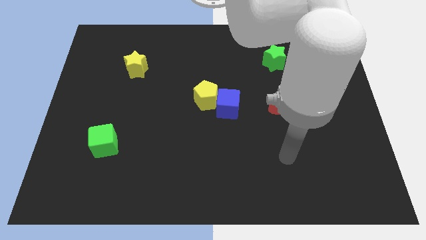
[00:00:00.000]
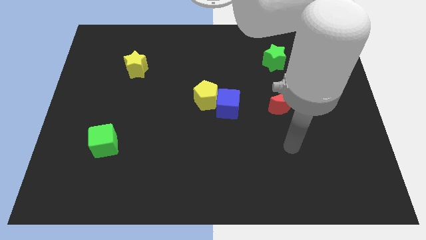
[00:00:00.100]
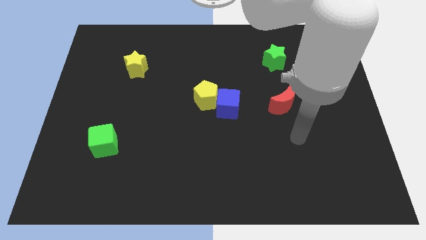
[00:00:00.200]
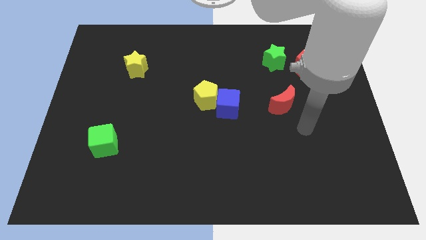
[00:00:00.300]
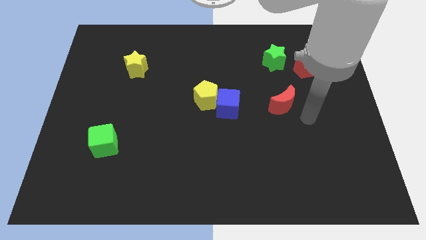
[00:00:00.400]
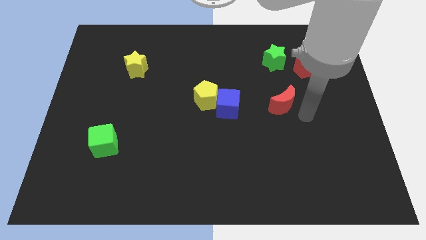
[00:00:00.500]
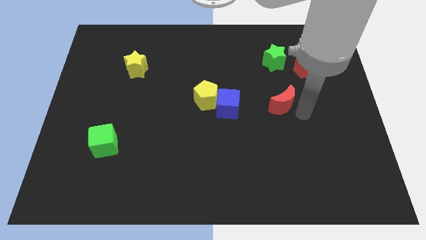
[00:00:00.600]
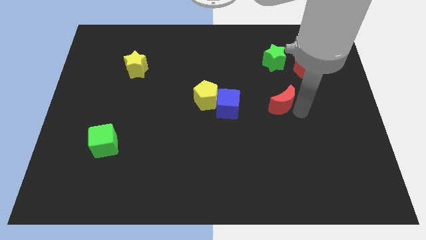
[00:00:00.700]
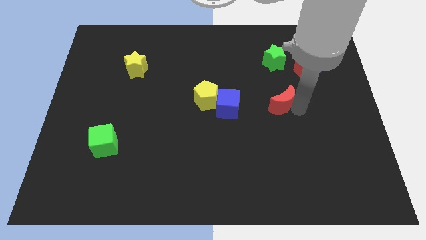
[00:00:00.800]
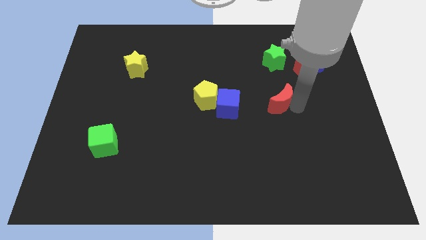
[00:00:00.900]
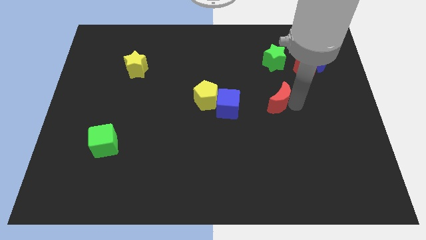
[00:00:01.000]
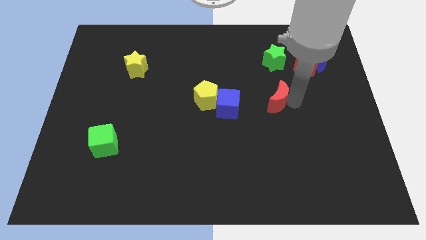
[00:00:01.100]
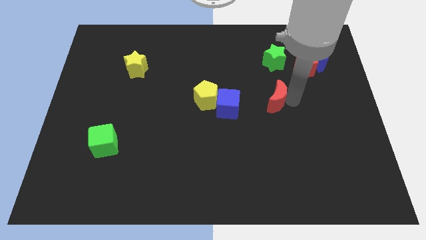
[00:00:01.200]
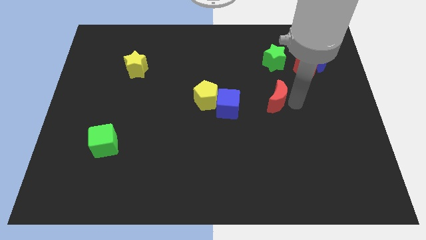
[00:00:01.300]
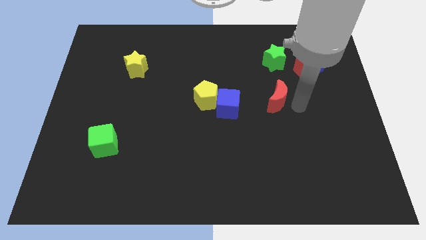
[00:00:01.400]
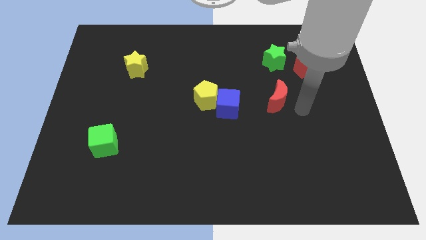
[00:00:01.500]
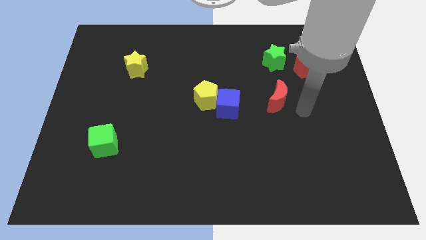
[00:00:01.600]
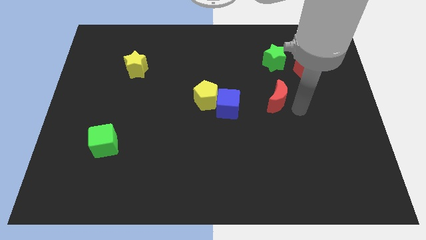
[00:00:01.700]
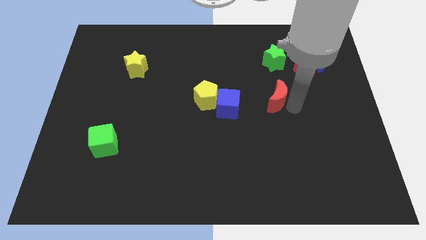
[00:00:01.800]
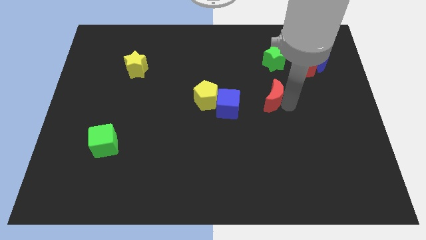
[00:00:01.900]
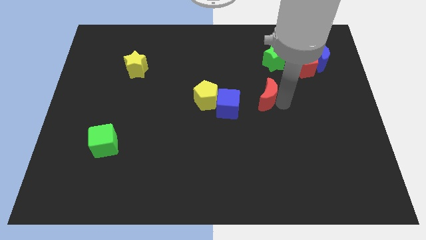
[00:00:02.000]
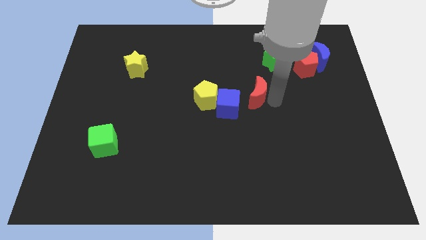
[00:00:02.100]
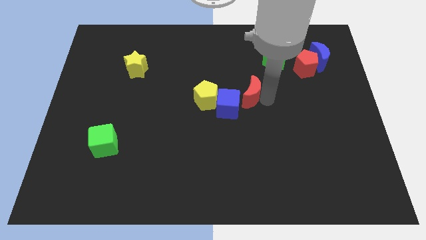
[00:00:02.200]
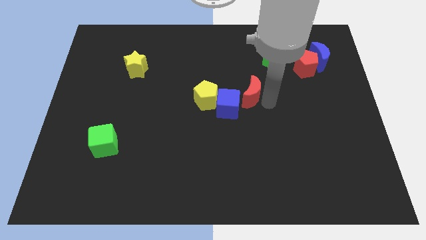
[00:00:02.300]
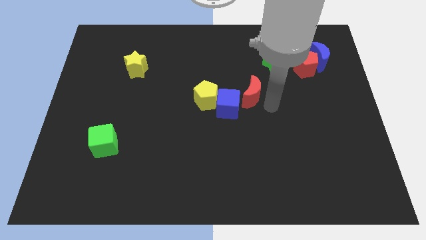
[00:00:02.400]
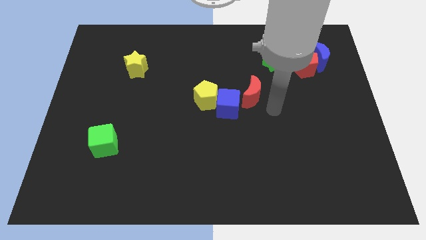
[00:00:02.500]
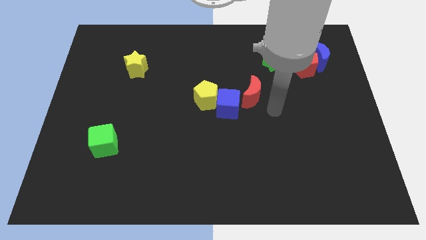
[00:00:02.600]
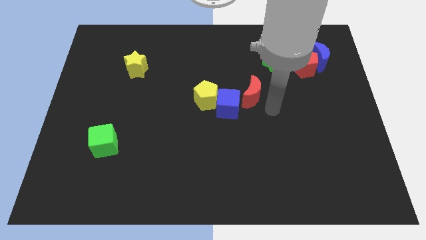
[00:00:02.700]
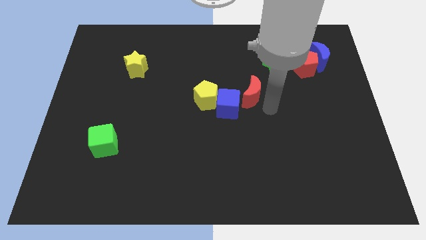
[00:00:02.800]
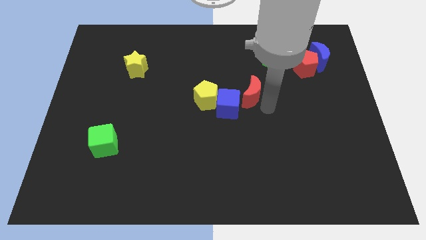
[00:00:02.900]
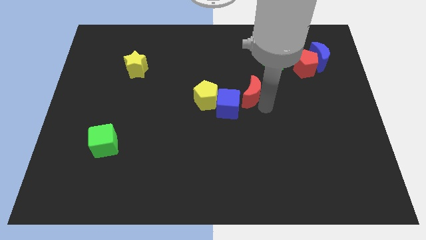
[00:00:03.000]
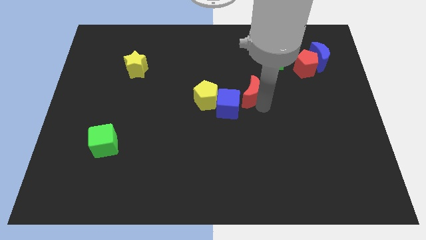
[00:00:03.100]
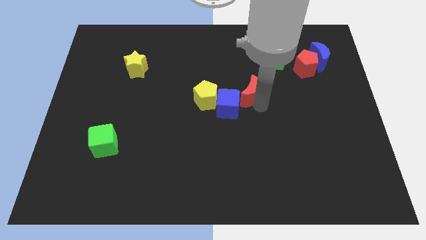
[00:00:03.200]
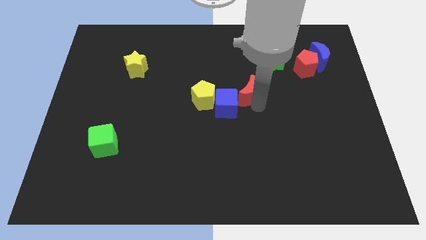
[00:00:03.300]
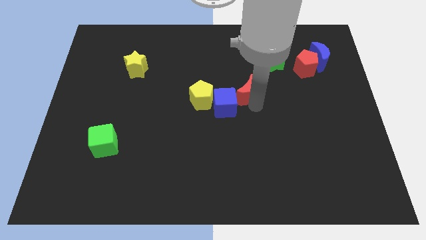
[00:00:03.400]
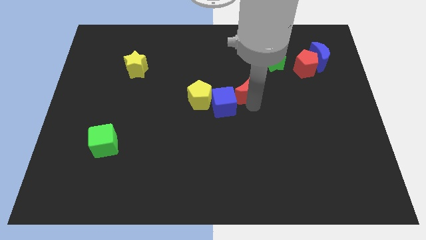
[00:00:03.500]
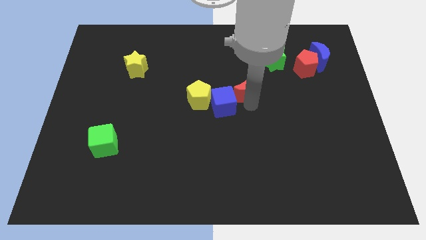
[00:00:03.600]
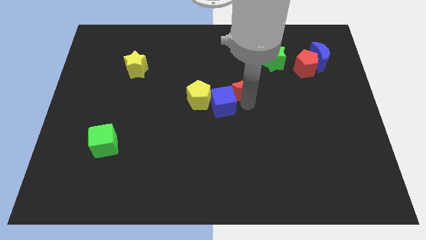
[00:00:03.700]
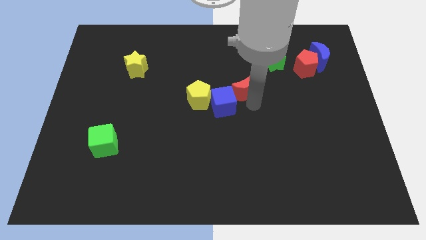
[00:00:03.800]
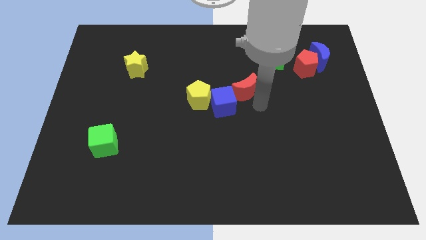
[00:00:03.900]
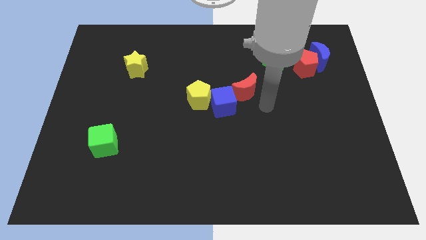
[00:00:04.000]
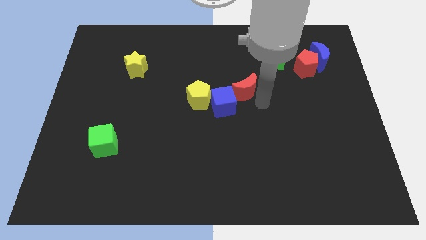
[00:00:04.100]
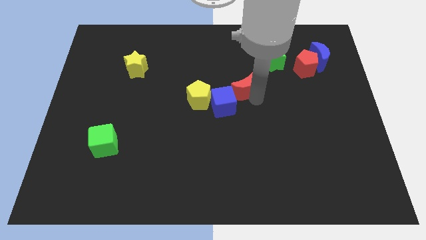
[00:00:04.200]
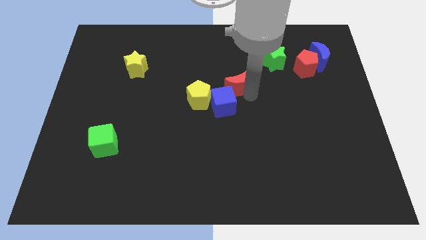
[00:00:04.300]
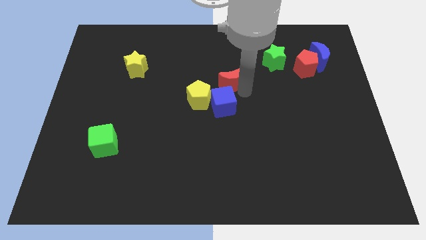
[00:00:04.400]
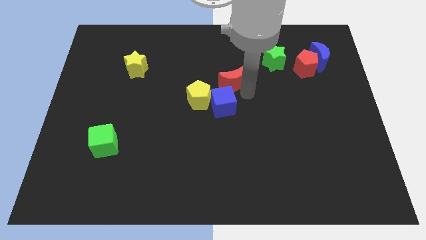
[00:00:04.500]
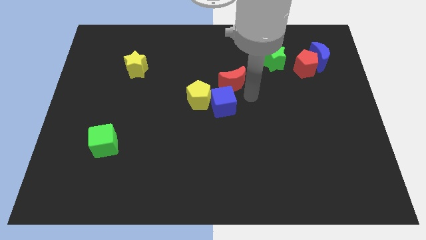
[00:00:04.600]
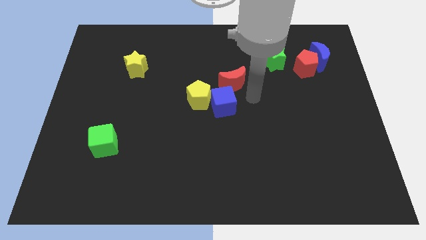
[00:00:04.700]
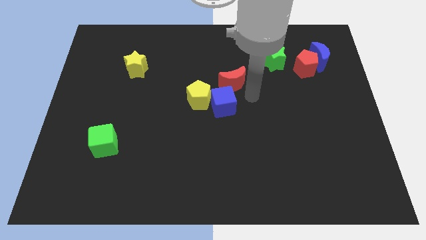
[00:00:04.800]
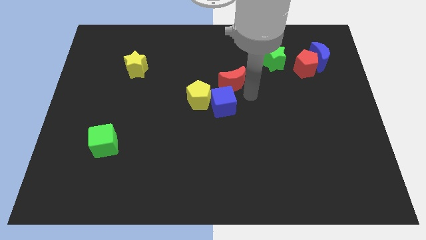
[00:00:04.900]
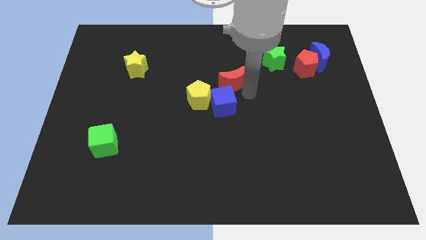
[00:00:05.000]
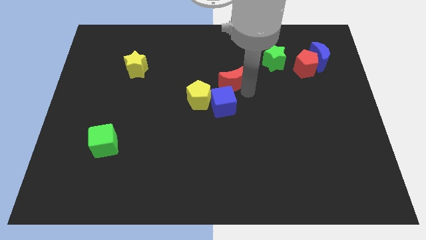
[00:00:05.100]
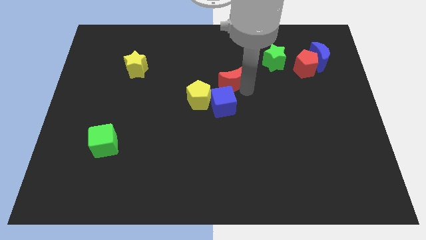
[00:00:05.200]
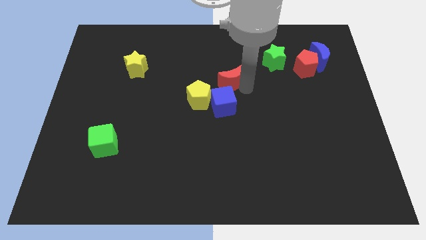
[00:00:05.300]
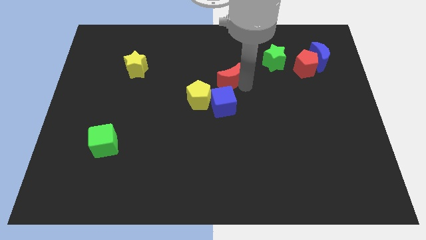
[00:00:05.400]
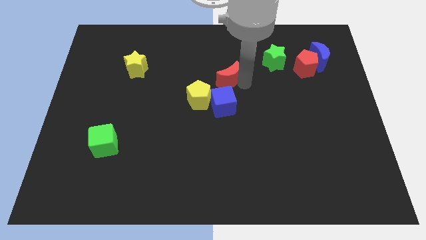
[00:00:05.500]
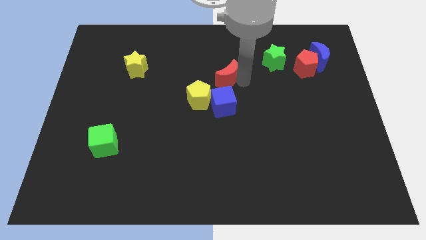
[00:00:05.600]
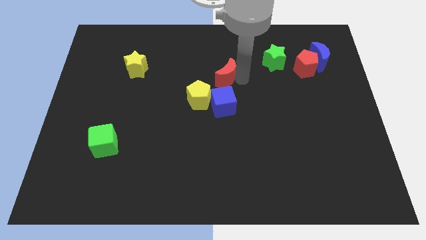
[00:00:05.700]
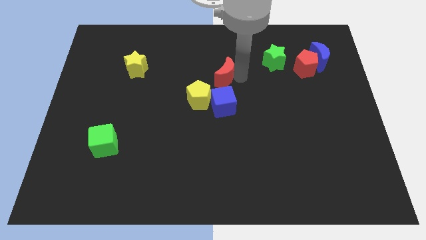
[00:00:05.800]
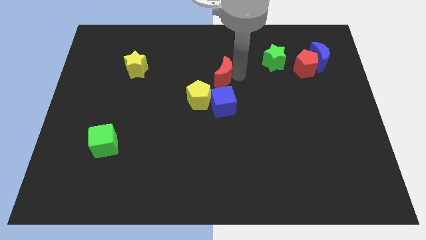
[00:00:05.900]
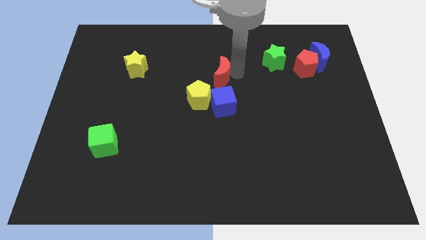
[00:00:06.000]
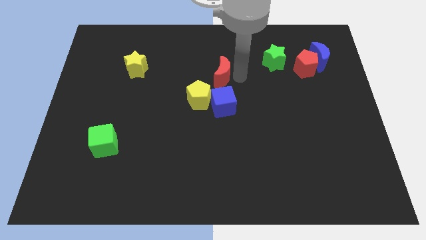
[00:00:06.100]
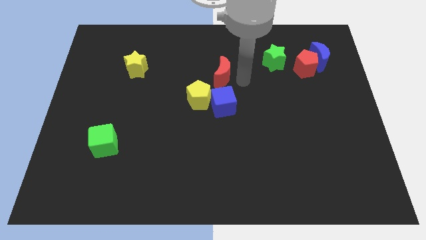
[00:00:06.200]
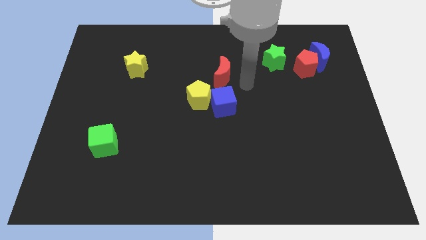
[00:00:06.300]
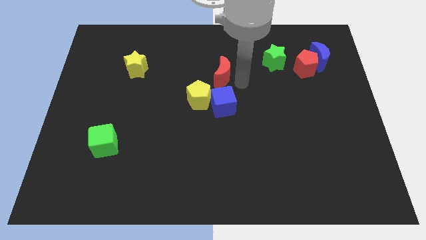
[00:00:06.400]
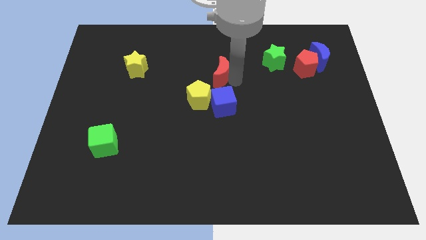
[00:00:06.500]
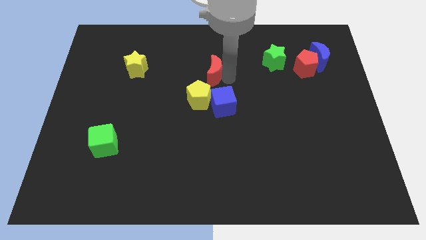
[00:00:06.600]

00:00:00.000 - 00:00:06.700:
move the red moon to the top of the yellow pentagon

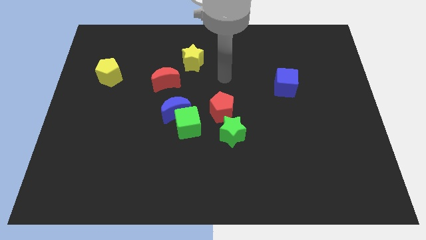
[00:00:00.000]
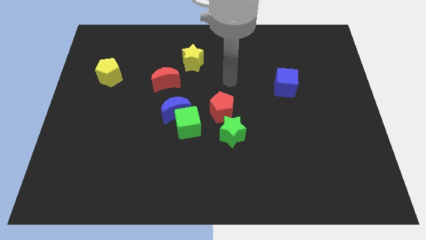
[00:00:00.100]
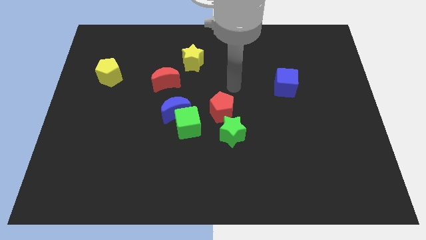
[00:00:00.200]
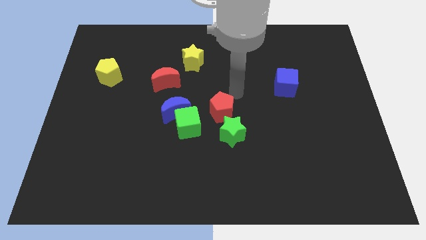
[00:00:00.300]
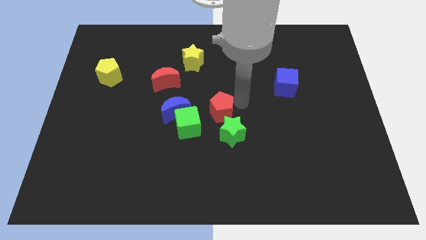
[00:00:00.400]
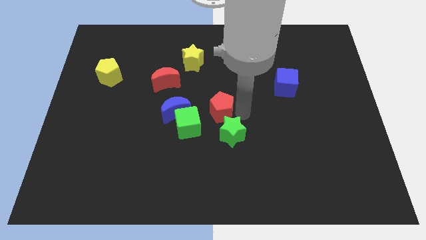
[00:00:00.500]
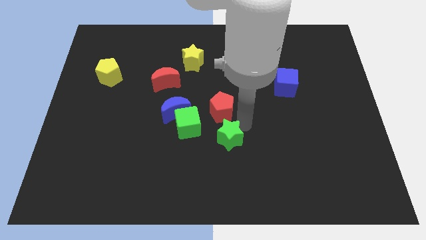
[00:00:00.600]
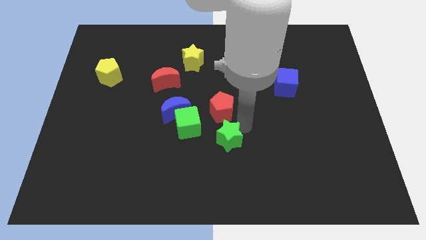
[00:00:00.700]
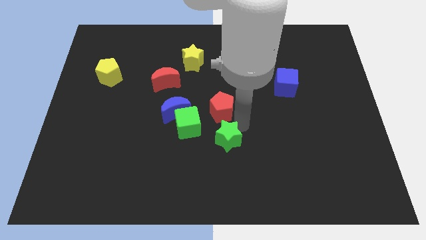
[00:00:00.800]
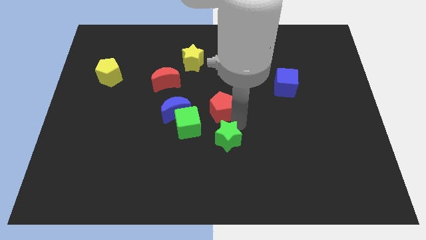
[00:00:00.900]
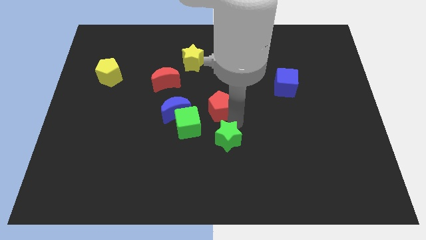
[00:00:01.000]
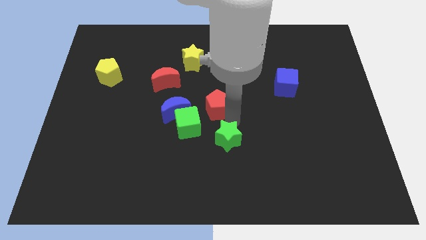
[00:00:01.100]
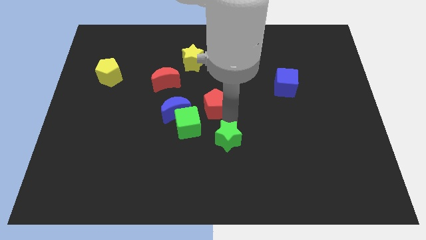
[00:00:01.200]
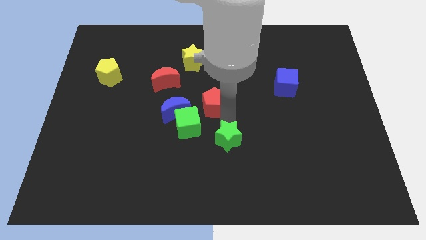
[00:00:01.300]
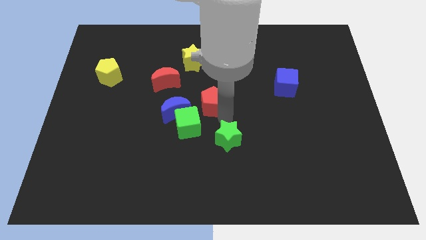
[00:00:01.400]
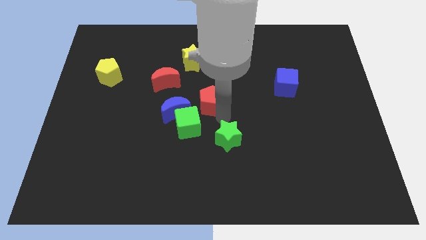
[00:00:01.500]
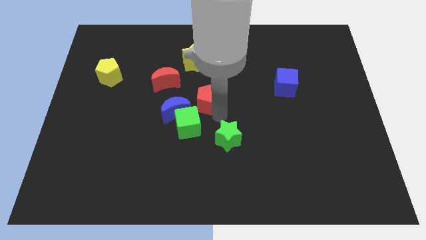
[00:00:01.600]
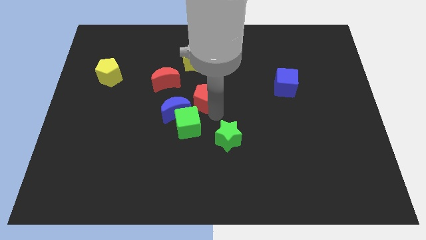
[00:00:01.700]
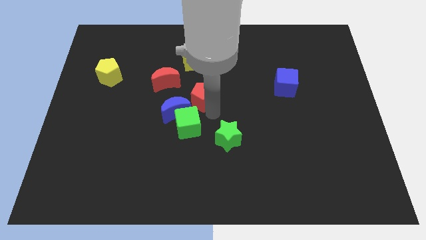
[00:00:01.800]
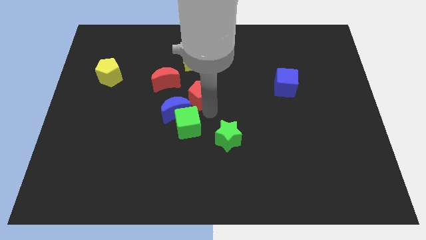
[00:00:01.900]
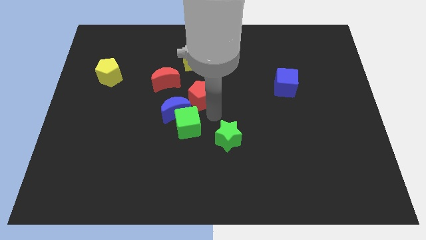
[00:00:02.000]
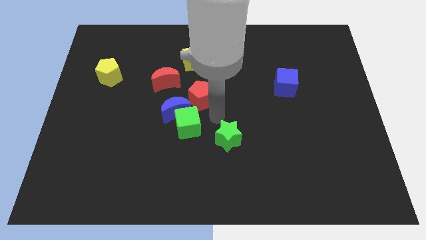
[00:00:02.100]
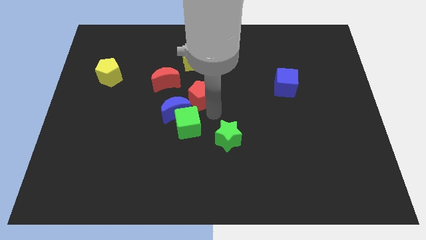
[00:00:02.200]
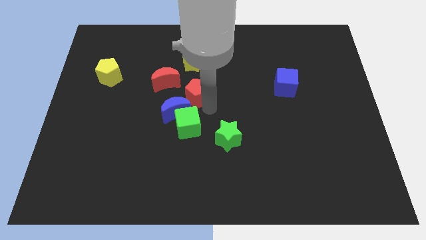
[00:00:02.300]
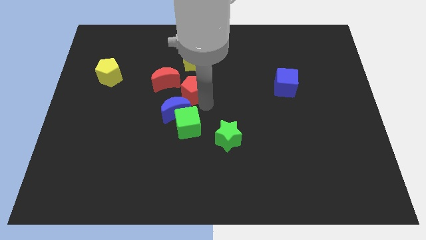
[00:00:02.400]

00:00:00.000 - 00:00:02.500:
slide the red pentagon above the blue moon
